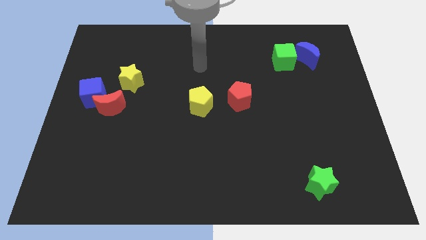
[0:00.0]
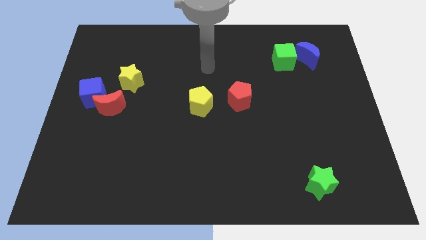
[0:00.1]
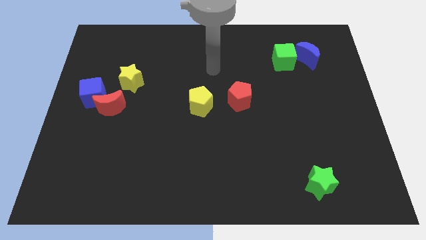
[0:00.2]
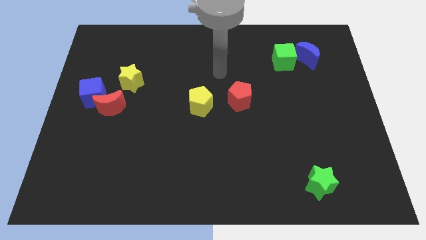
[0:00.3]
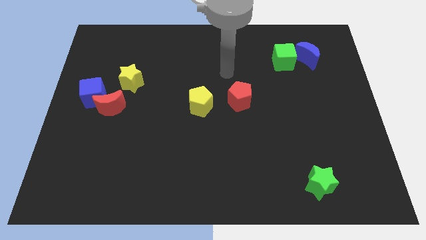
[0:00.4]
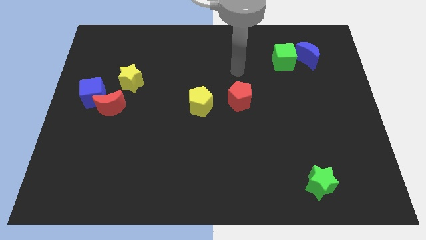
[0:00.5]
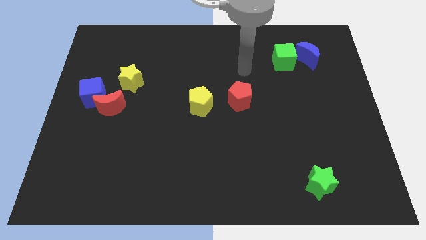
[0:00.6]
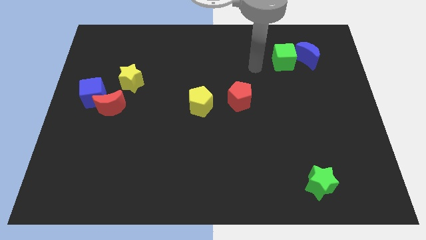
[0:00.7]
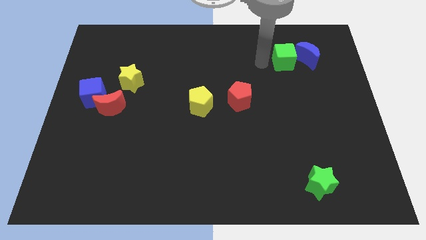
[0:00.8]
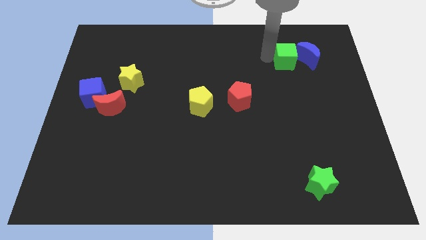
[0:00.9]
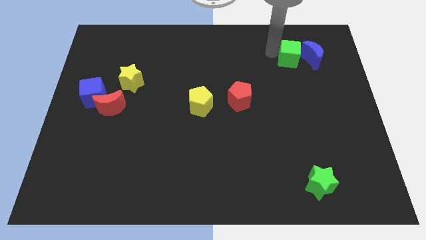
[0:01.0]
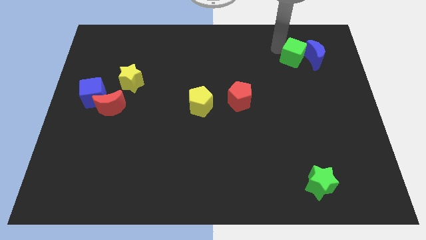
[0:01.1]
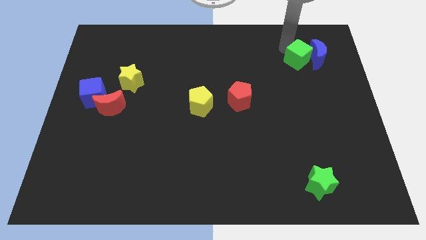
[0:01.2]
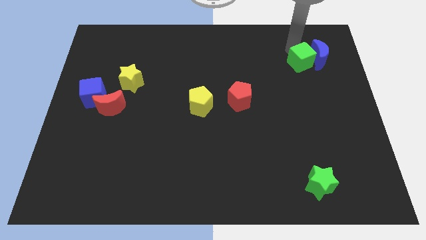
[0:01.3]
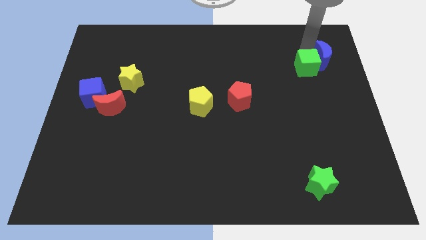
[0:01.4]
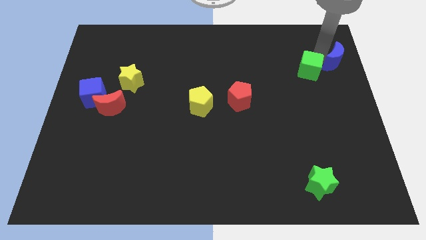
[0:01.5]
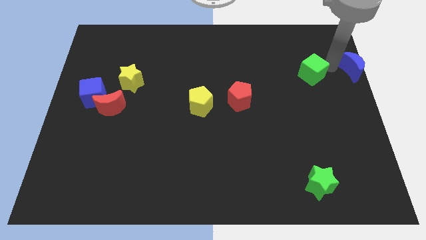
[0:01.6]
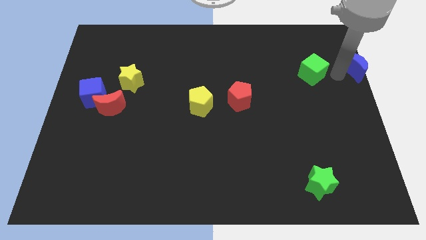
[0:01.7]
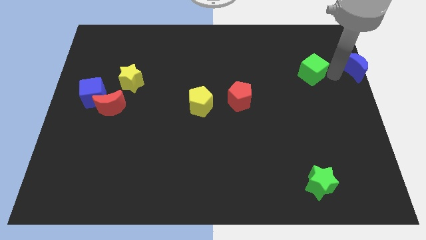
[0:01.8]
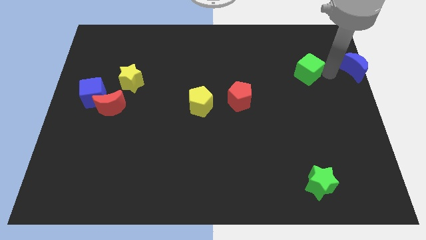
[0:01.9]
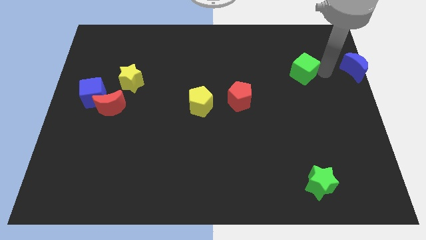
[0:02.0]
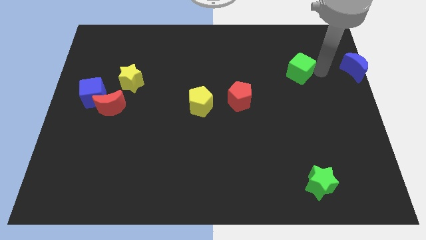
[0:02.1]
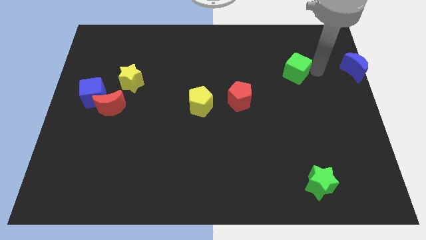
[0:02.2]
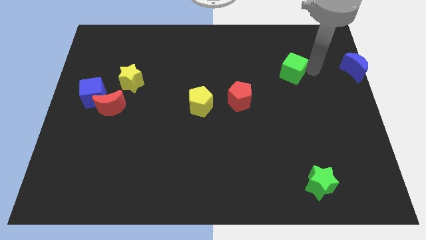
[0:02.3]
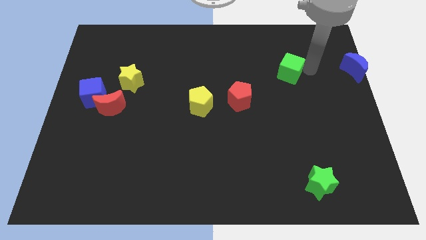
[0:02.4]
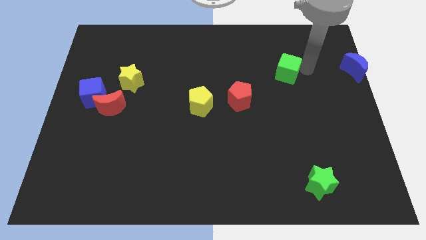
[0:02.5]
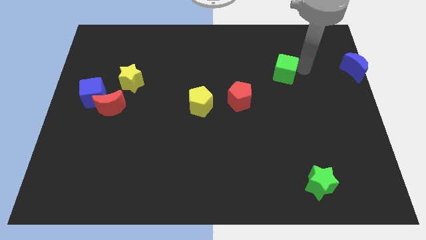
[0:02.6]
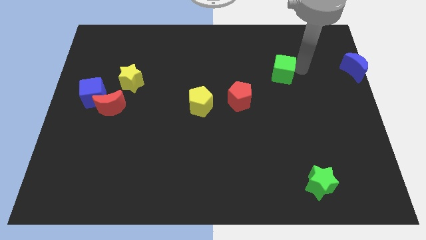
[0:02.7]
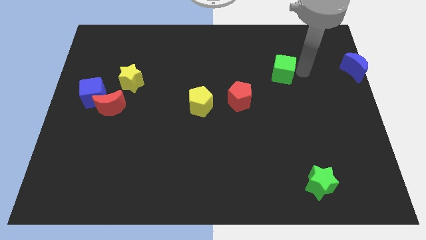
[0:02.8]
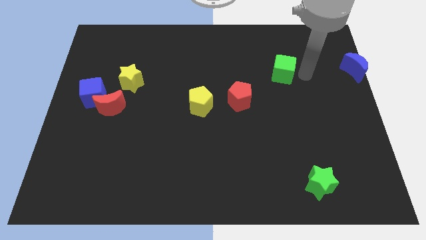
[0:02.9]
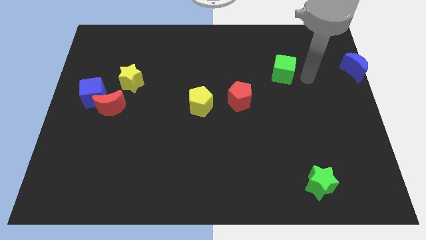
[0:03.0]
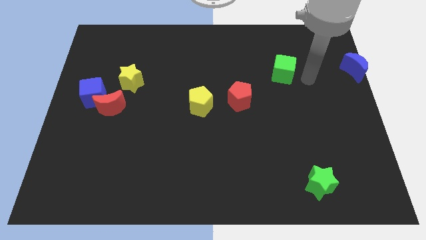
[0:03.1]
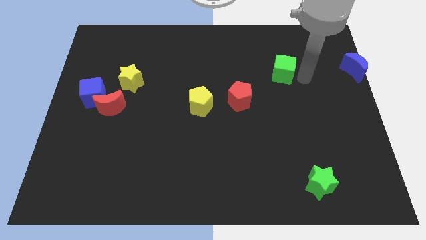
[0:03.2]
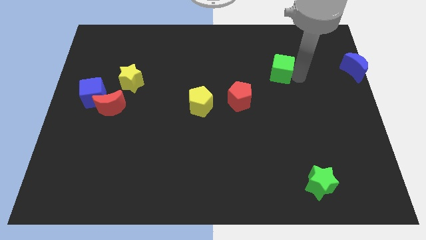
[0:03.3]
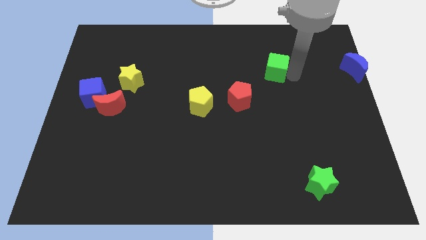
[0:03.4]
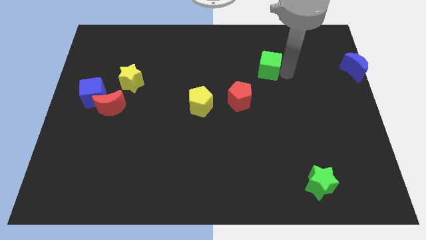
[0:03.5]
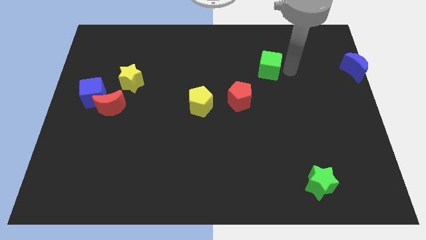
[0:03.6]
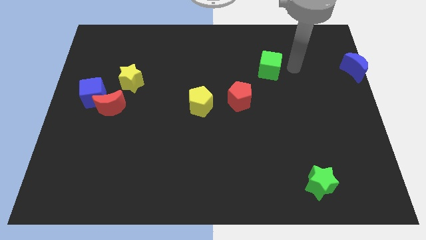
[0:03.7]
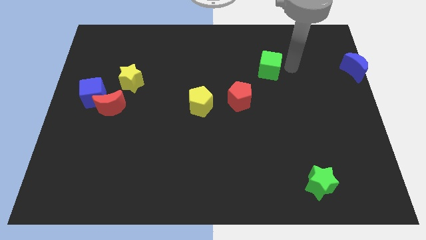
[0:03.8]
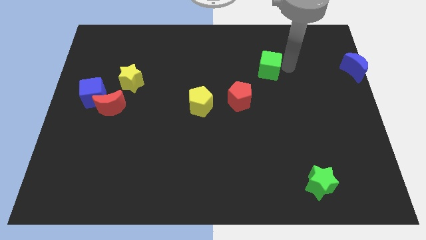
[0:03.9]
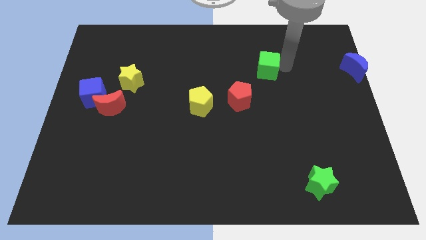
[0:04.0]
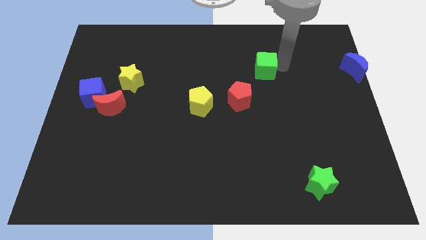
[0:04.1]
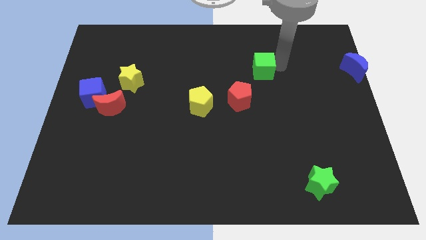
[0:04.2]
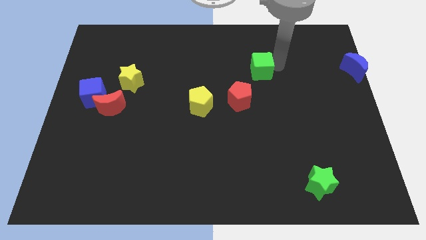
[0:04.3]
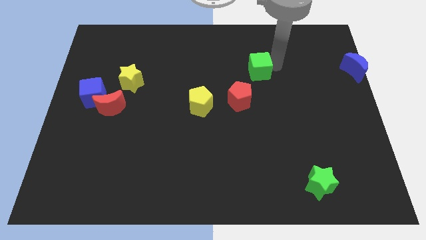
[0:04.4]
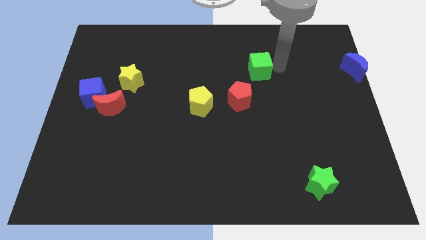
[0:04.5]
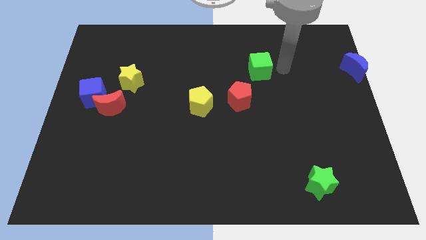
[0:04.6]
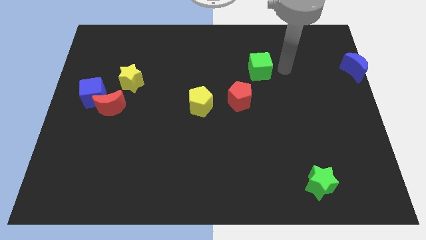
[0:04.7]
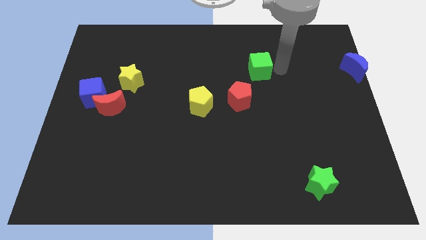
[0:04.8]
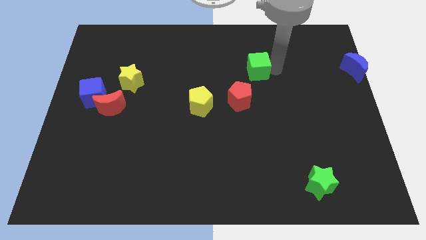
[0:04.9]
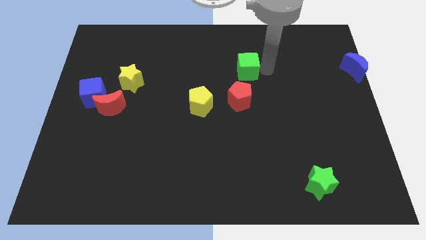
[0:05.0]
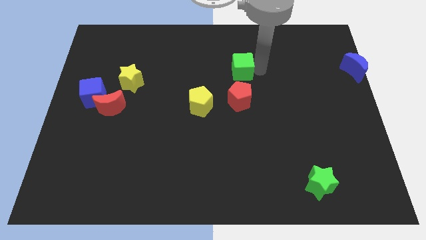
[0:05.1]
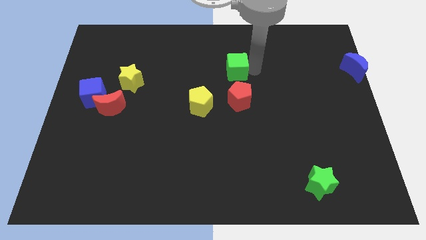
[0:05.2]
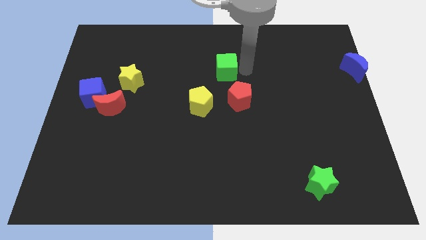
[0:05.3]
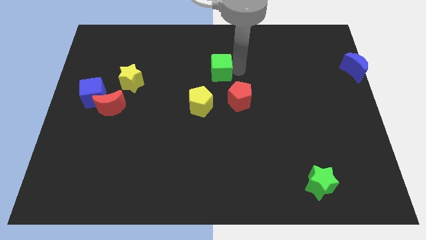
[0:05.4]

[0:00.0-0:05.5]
slide the green cube to the top of the yellow pentagon

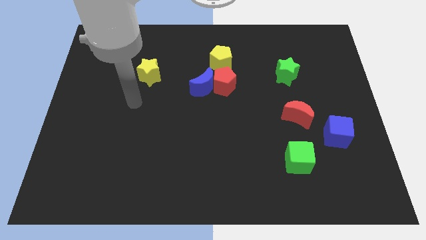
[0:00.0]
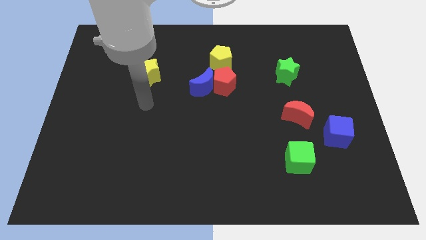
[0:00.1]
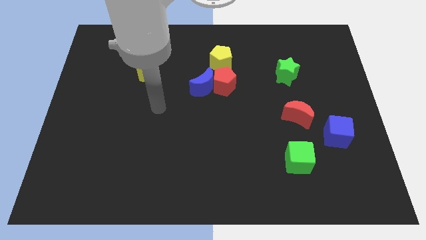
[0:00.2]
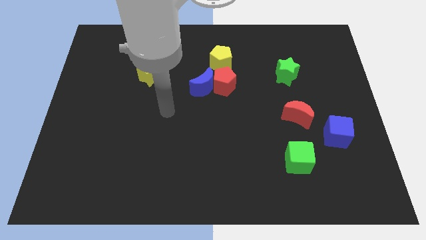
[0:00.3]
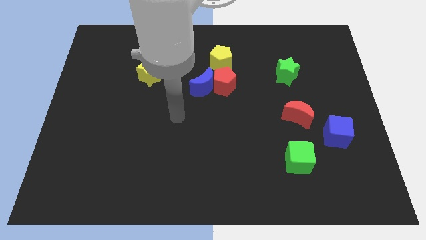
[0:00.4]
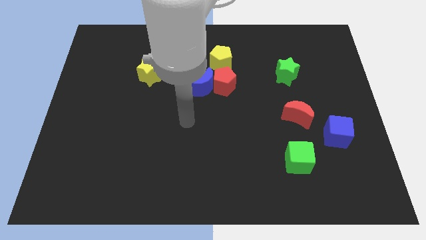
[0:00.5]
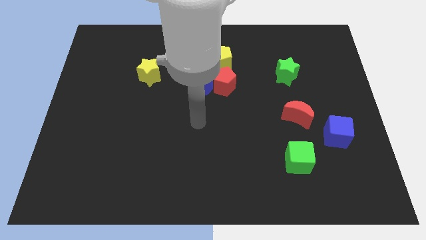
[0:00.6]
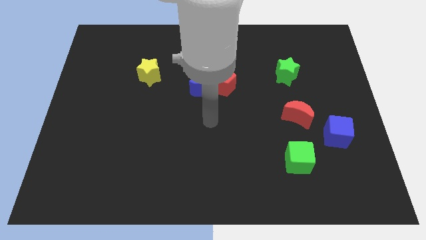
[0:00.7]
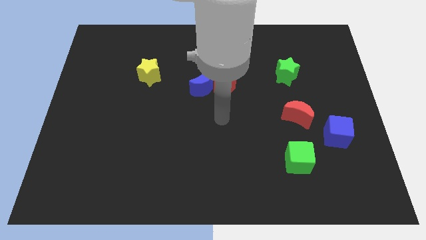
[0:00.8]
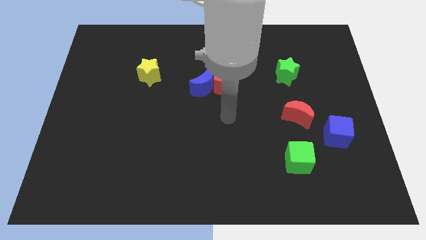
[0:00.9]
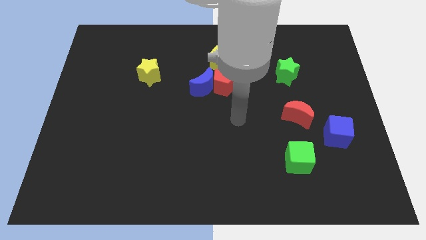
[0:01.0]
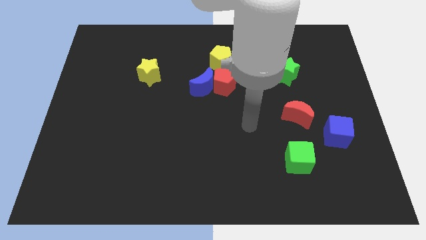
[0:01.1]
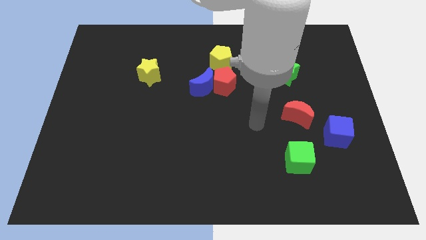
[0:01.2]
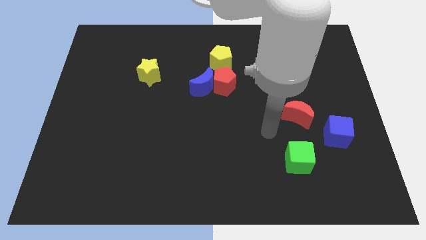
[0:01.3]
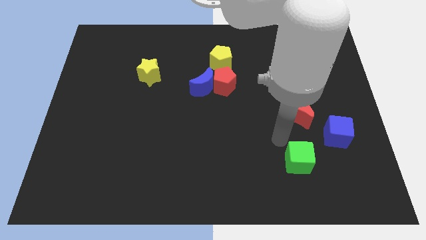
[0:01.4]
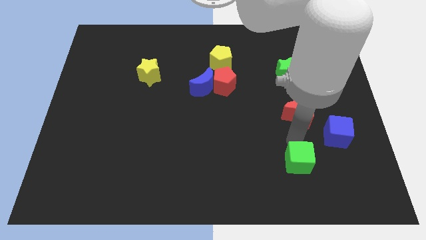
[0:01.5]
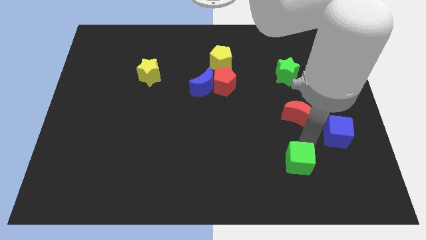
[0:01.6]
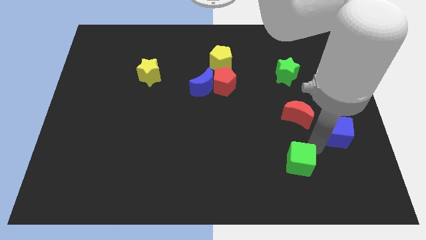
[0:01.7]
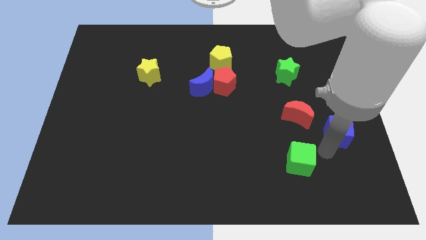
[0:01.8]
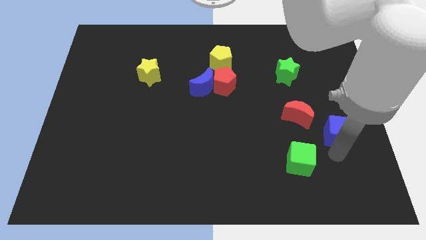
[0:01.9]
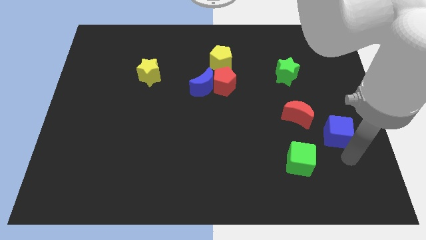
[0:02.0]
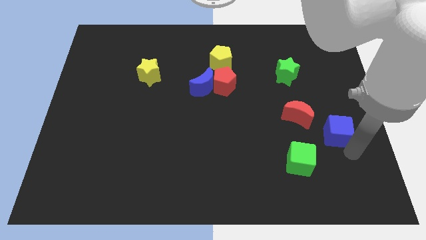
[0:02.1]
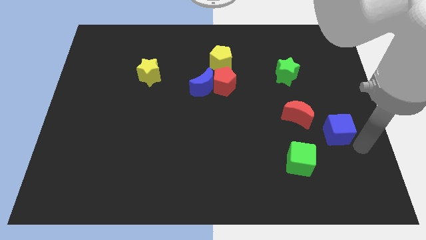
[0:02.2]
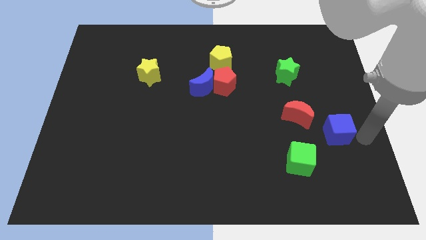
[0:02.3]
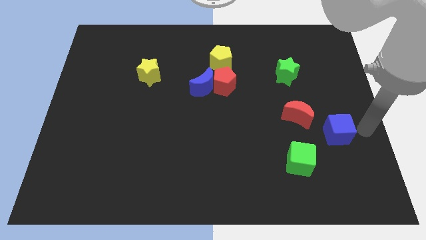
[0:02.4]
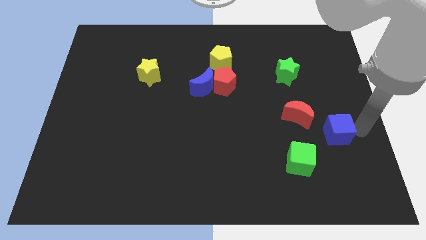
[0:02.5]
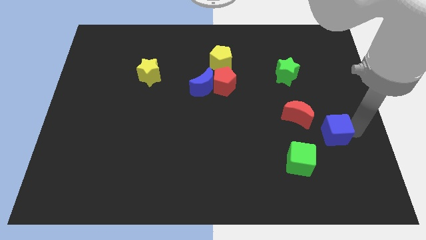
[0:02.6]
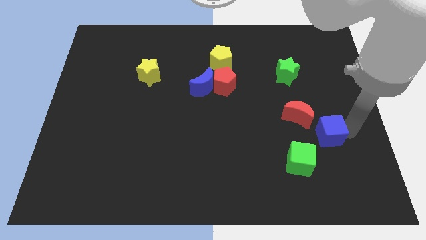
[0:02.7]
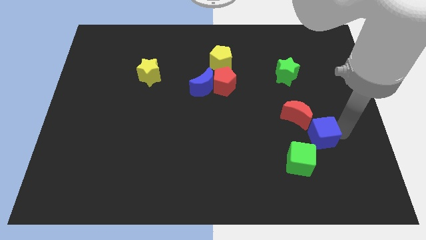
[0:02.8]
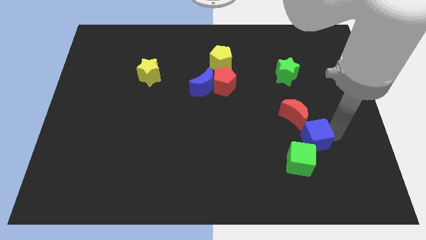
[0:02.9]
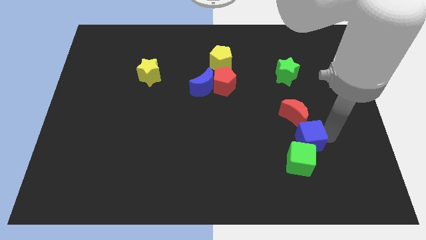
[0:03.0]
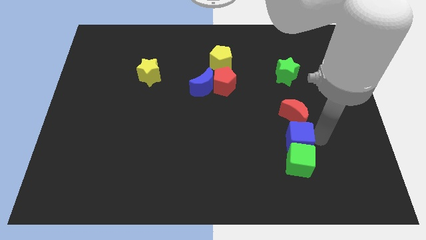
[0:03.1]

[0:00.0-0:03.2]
move the blue cube to the top left of the green cube
